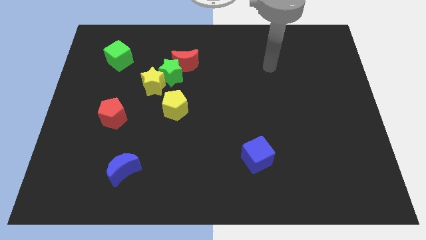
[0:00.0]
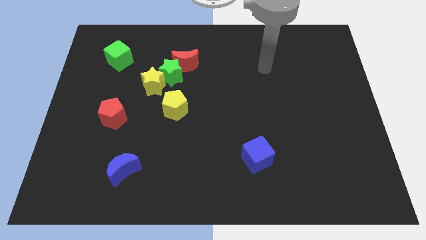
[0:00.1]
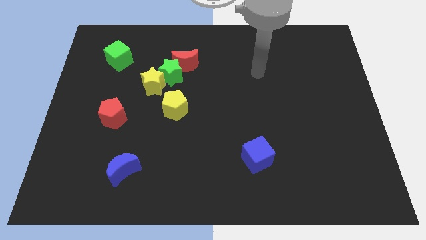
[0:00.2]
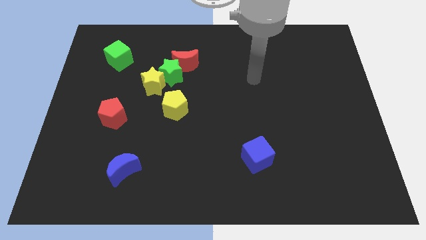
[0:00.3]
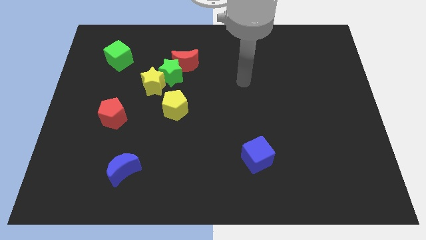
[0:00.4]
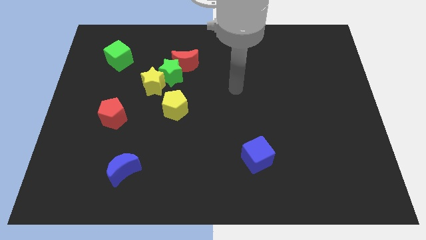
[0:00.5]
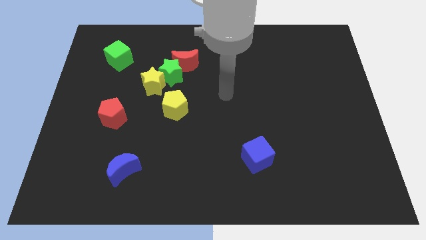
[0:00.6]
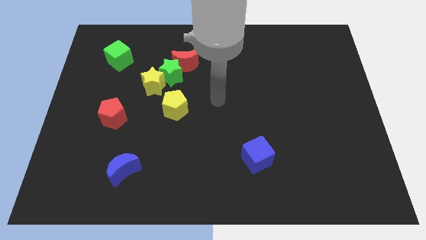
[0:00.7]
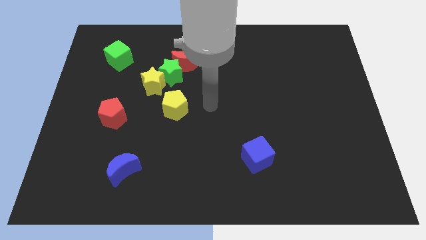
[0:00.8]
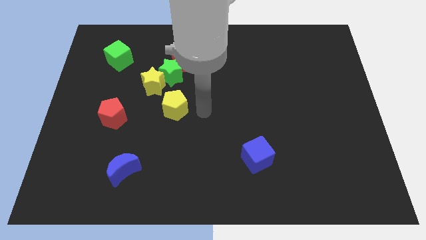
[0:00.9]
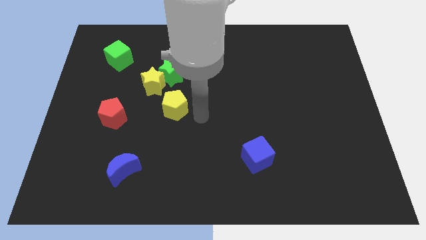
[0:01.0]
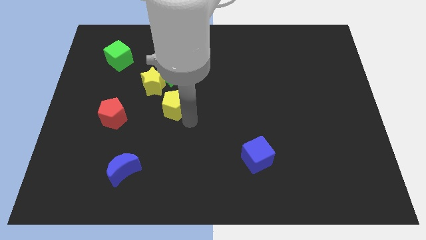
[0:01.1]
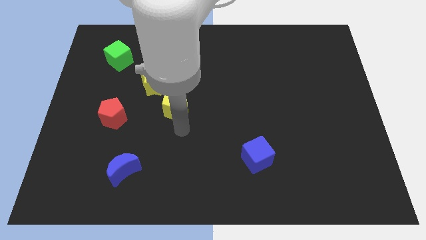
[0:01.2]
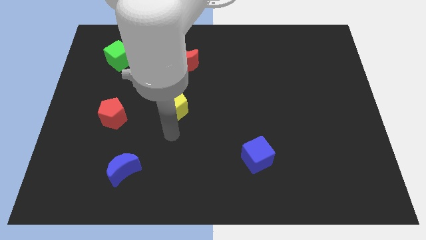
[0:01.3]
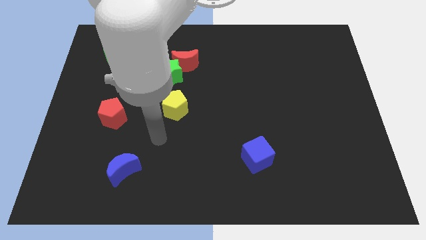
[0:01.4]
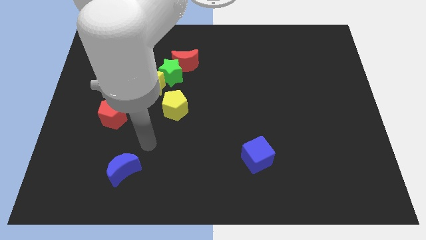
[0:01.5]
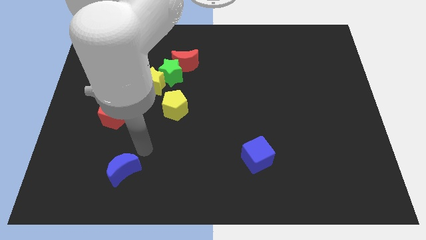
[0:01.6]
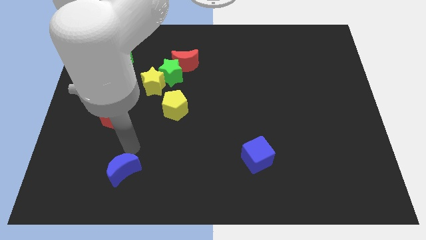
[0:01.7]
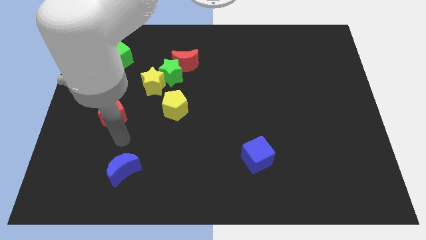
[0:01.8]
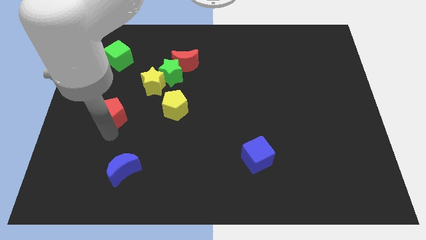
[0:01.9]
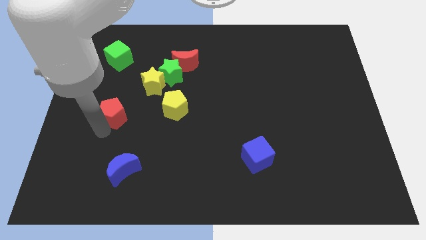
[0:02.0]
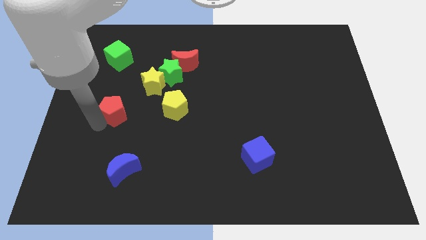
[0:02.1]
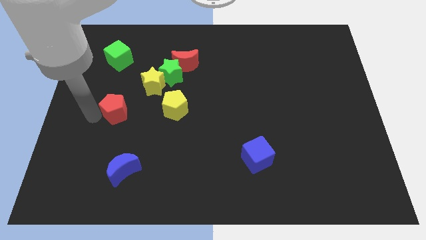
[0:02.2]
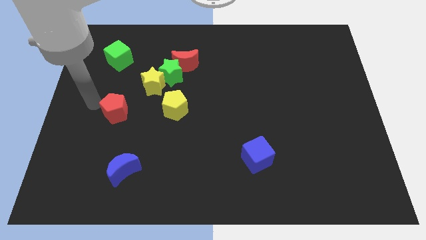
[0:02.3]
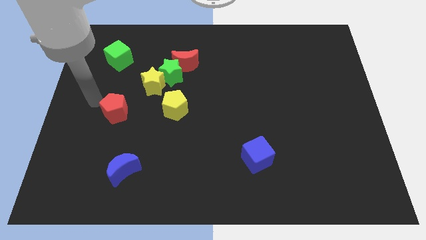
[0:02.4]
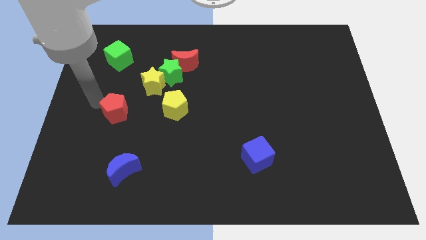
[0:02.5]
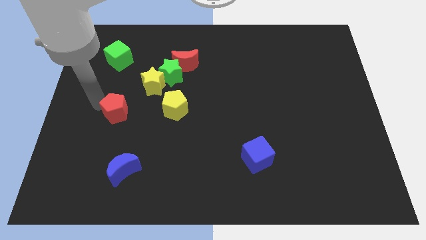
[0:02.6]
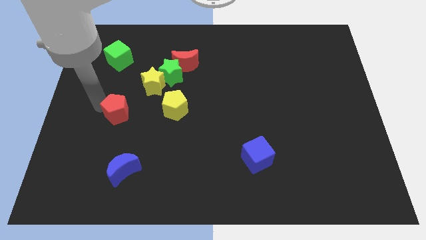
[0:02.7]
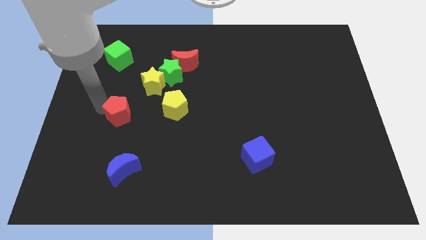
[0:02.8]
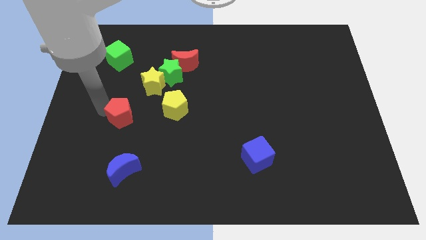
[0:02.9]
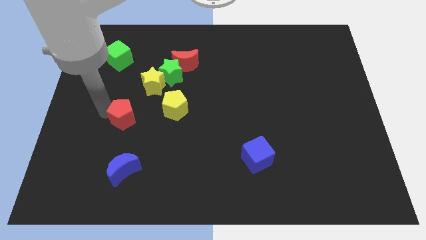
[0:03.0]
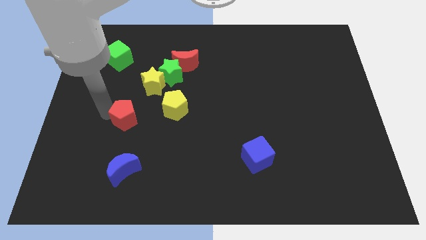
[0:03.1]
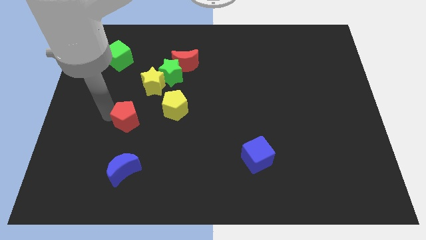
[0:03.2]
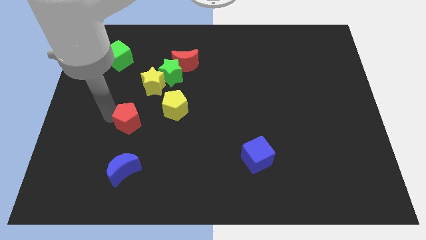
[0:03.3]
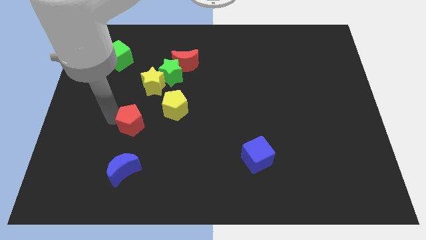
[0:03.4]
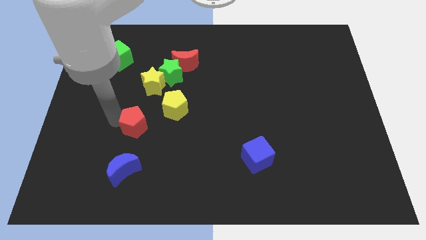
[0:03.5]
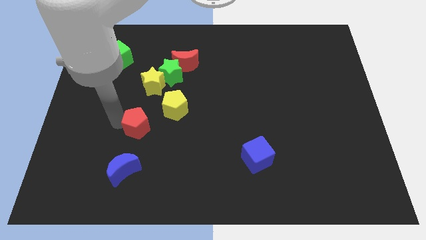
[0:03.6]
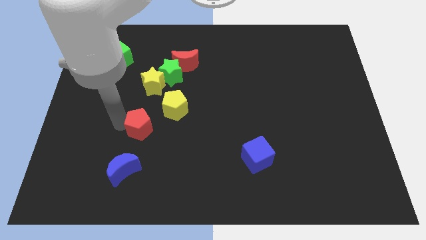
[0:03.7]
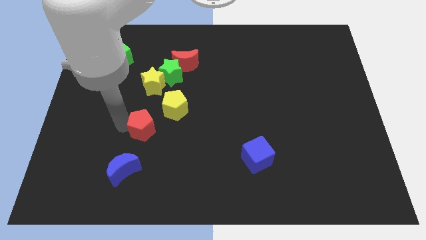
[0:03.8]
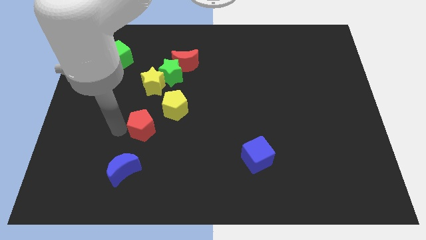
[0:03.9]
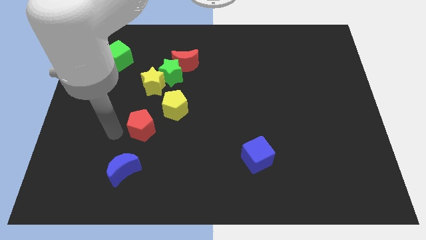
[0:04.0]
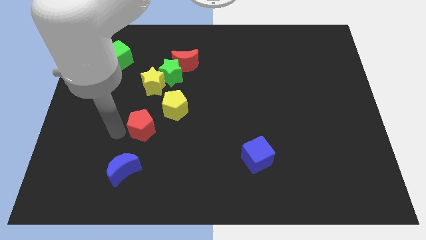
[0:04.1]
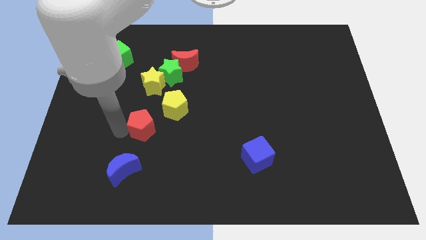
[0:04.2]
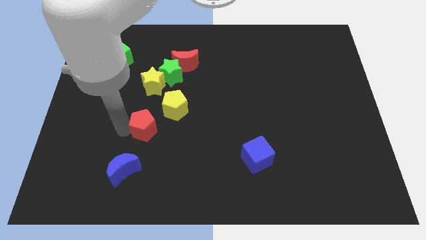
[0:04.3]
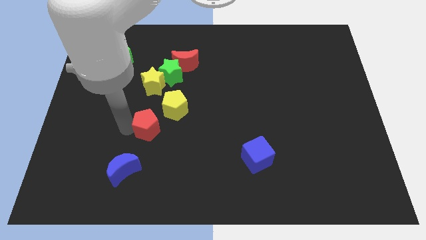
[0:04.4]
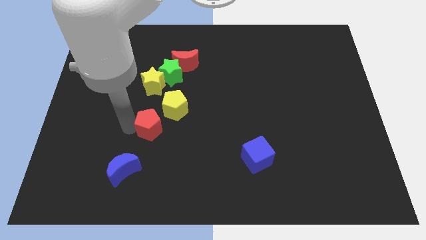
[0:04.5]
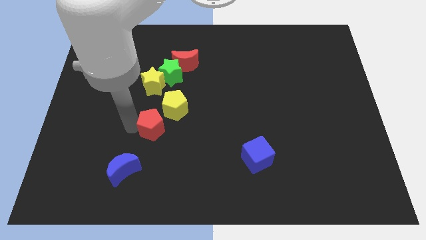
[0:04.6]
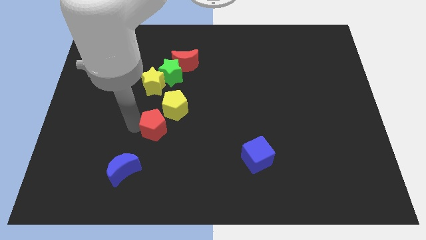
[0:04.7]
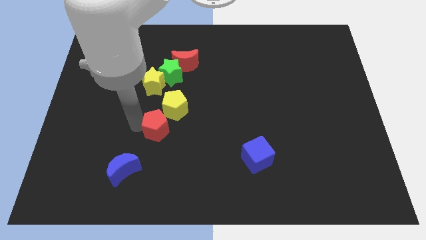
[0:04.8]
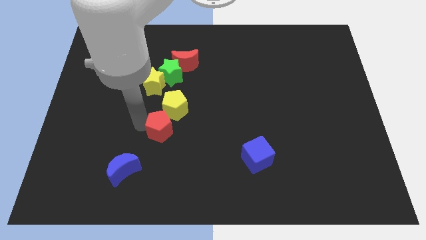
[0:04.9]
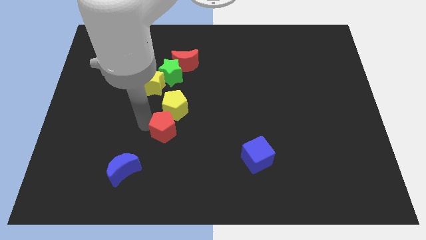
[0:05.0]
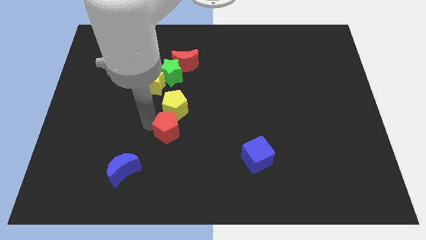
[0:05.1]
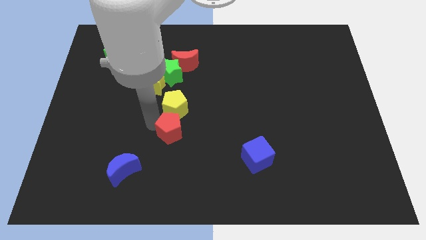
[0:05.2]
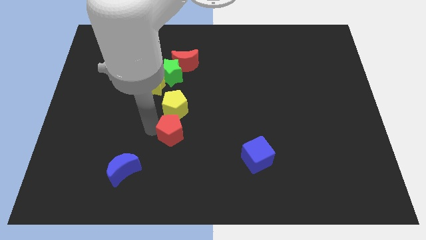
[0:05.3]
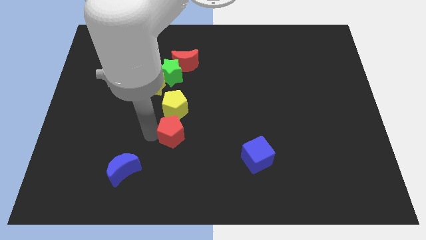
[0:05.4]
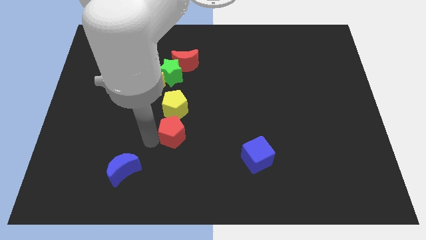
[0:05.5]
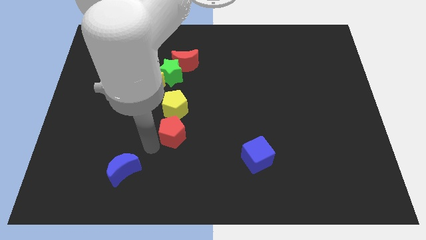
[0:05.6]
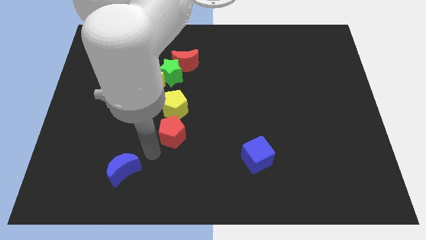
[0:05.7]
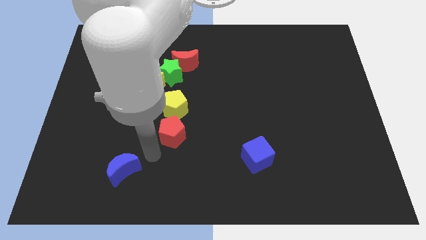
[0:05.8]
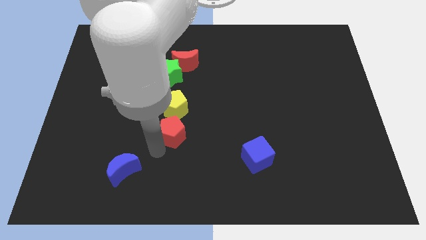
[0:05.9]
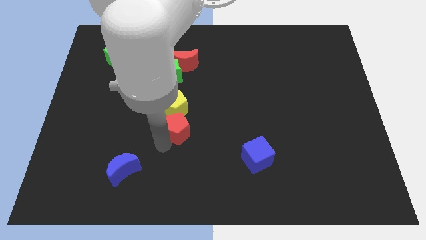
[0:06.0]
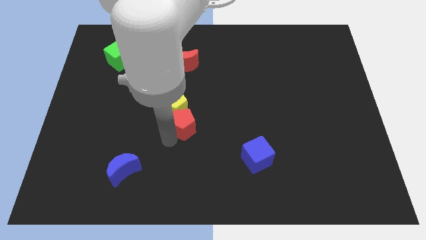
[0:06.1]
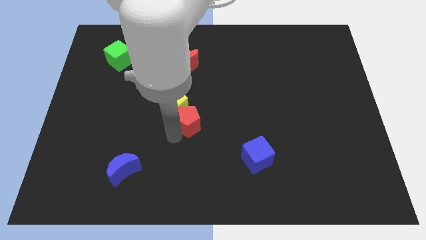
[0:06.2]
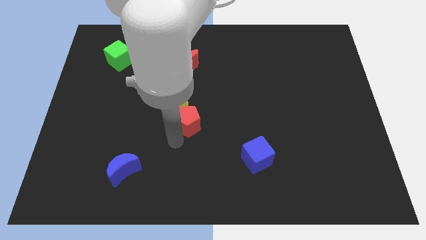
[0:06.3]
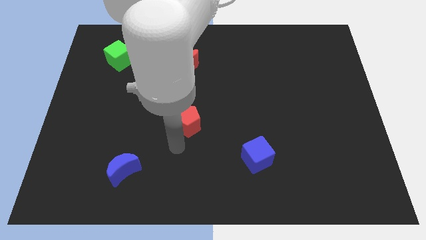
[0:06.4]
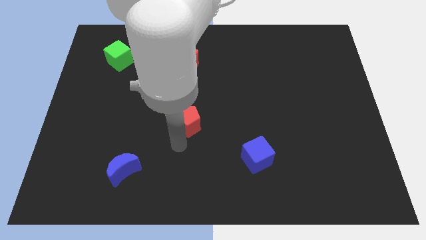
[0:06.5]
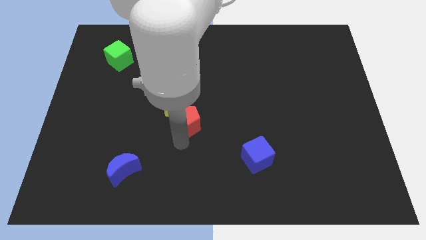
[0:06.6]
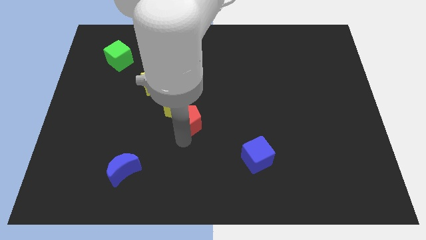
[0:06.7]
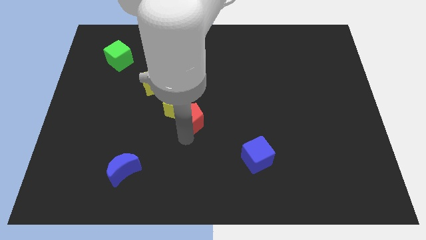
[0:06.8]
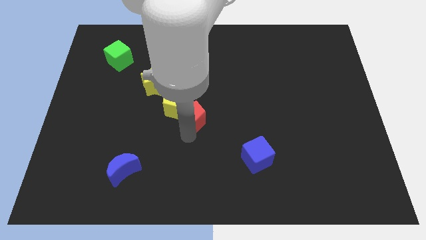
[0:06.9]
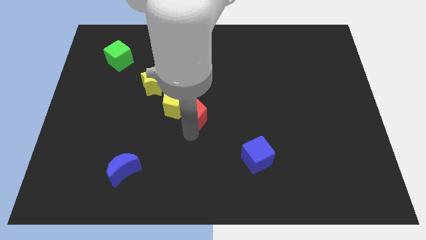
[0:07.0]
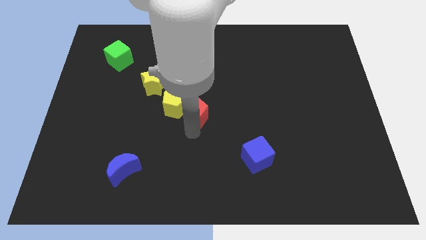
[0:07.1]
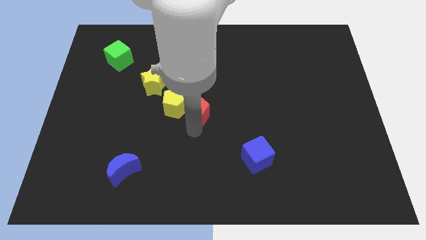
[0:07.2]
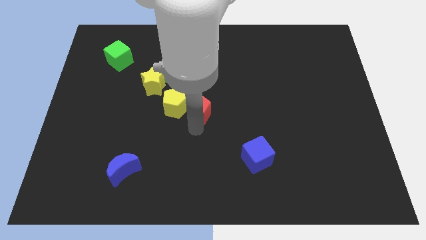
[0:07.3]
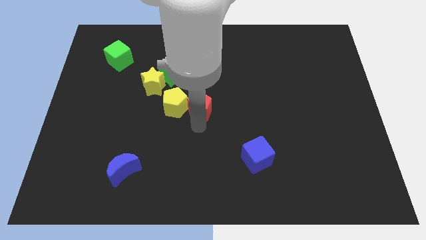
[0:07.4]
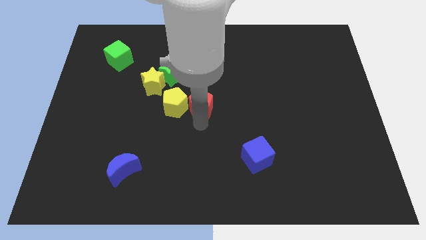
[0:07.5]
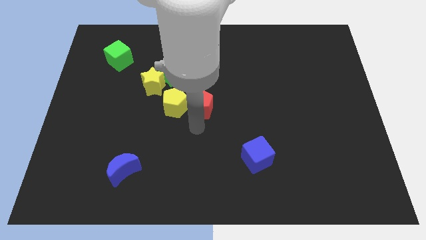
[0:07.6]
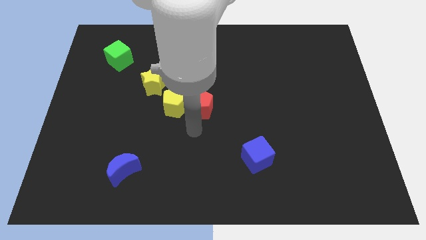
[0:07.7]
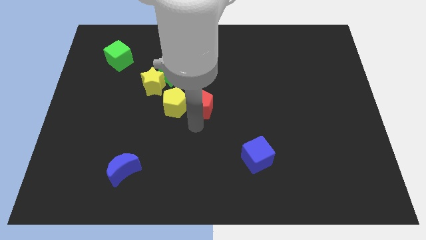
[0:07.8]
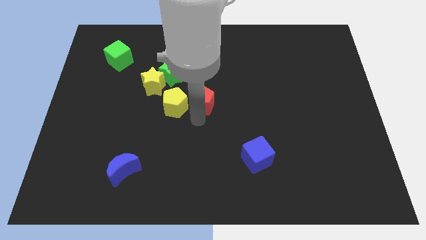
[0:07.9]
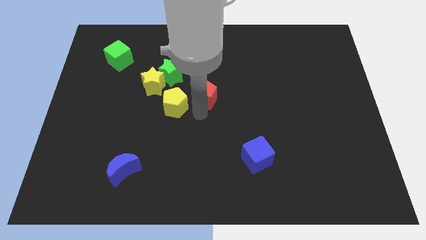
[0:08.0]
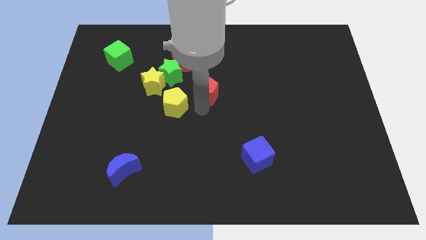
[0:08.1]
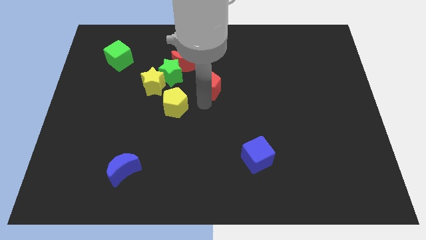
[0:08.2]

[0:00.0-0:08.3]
slide the red pentagon to the right of the green star
